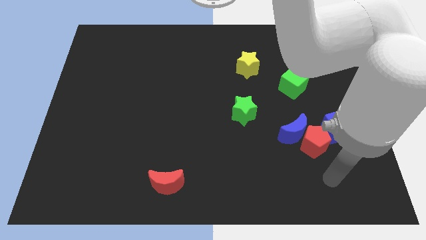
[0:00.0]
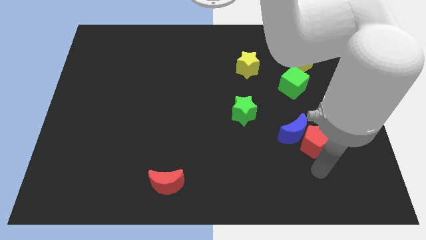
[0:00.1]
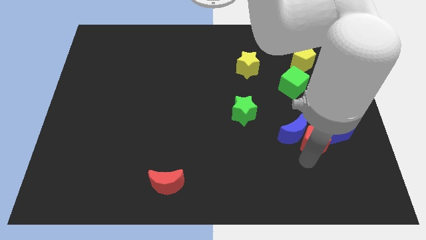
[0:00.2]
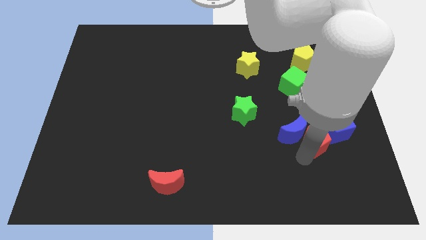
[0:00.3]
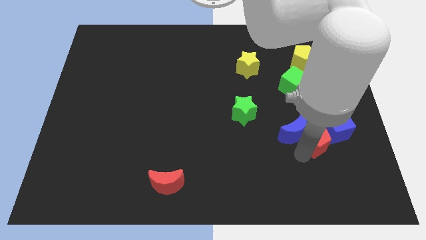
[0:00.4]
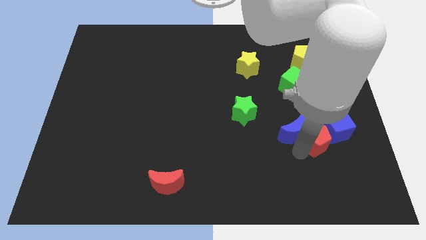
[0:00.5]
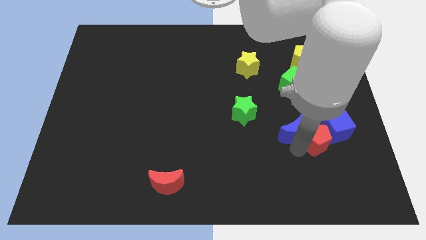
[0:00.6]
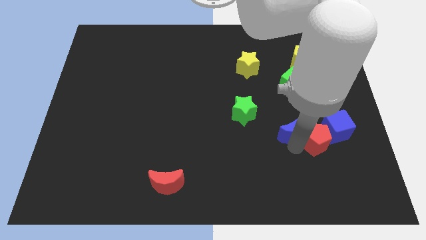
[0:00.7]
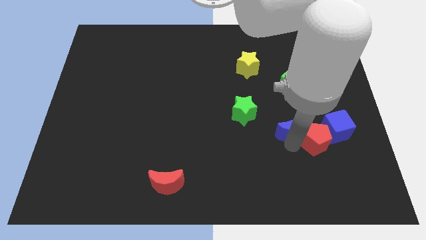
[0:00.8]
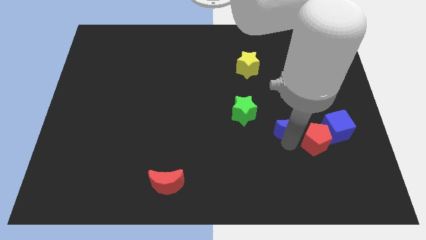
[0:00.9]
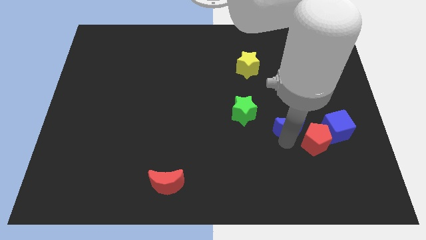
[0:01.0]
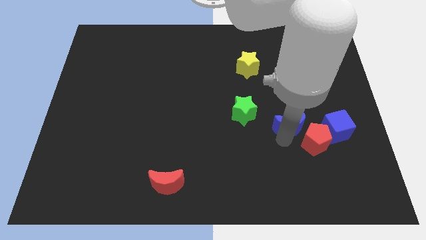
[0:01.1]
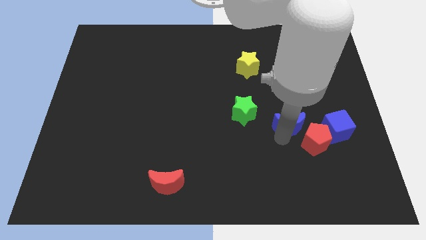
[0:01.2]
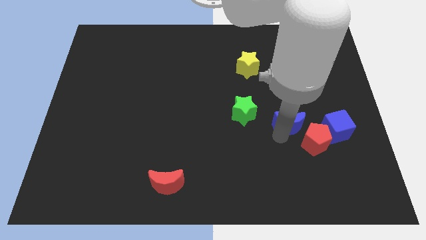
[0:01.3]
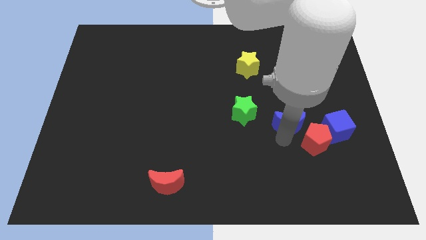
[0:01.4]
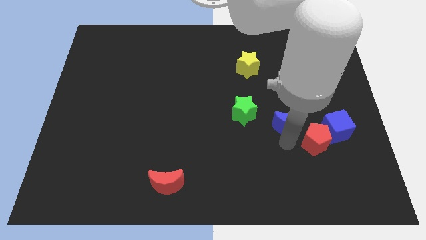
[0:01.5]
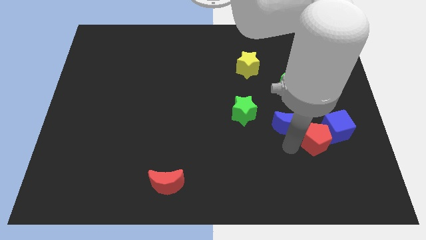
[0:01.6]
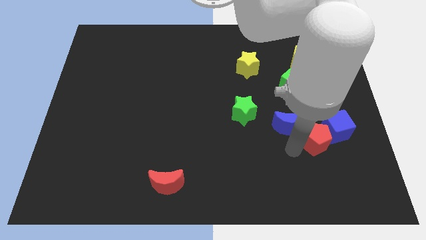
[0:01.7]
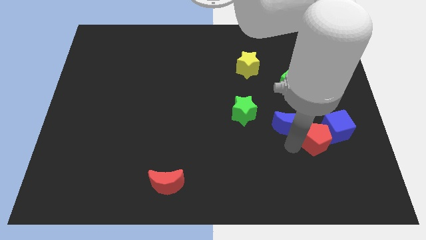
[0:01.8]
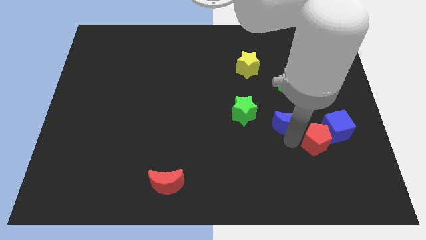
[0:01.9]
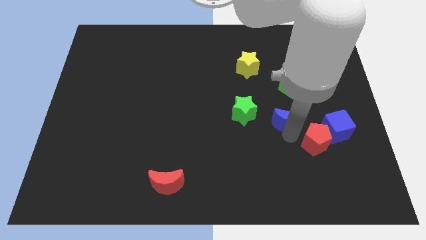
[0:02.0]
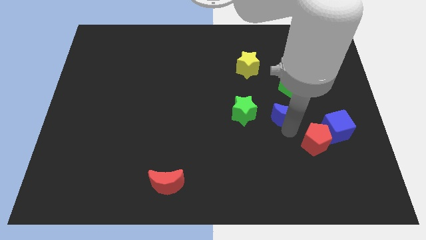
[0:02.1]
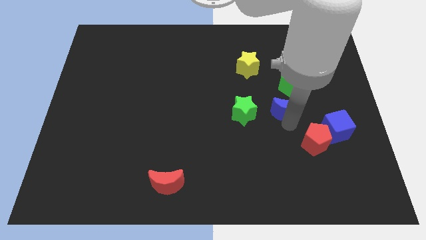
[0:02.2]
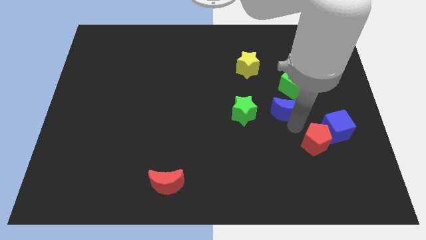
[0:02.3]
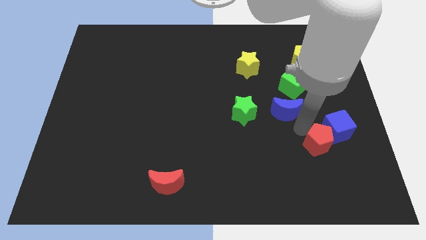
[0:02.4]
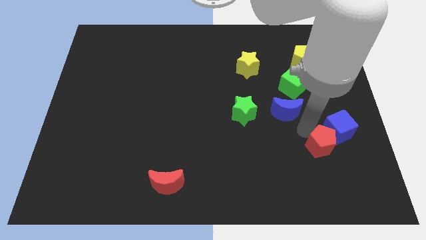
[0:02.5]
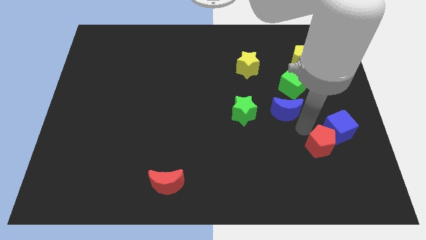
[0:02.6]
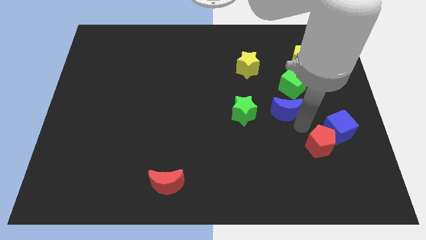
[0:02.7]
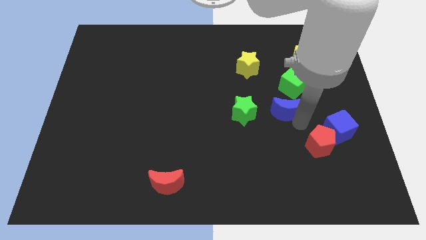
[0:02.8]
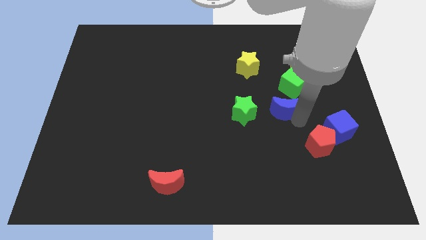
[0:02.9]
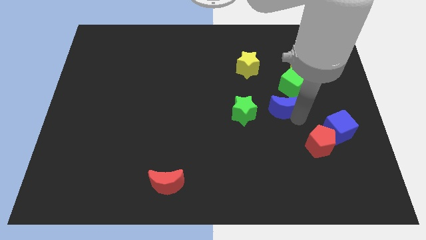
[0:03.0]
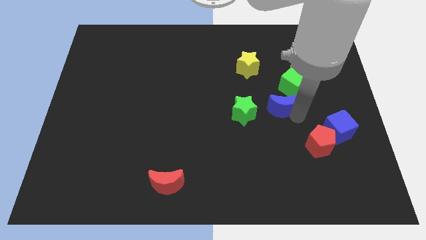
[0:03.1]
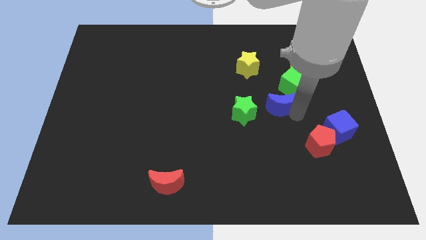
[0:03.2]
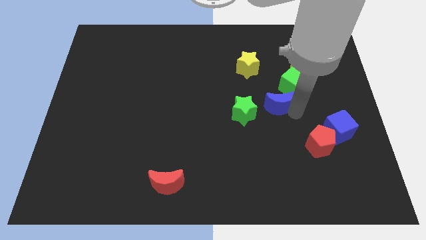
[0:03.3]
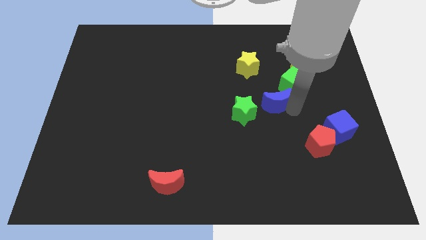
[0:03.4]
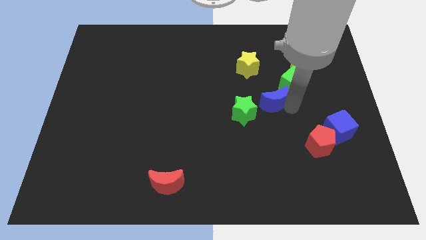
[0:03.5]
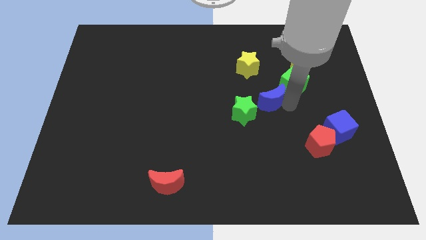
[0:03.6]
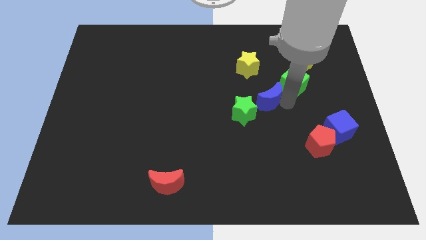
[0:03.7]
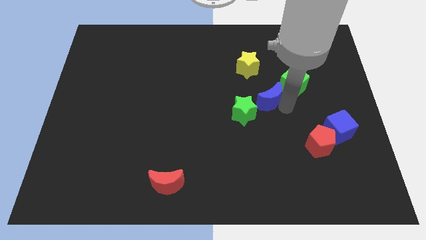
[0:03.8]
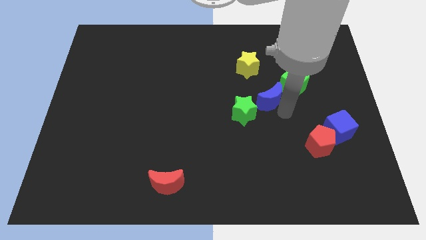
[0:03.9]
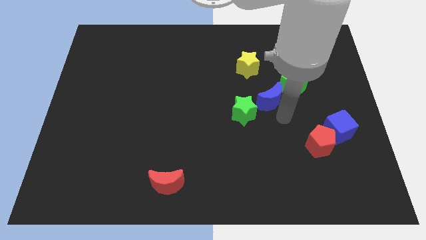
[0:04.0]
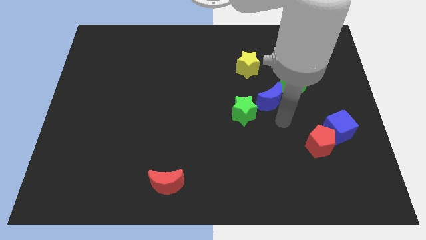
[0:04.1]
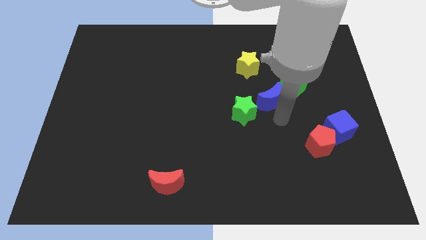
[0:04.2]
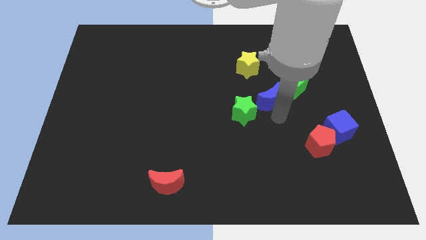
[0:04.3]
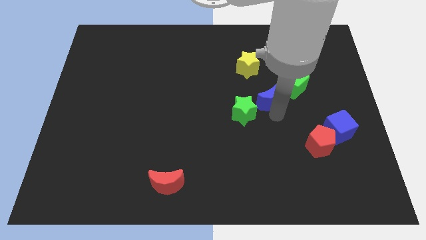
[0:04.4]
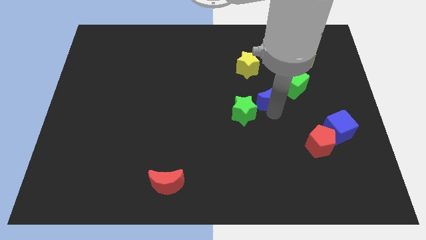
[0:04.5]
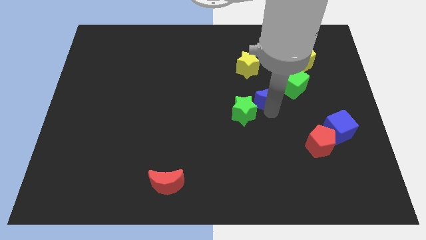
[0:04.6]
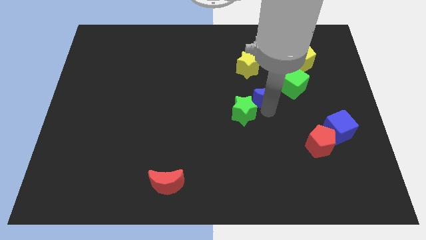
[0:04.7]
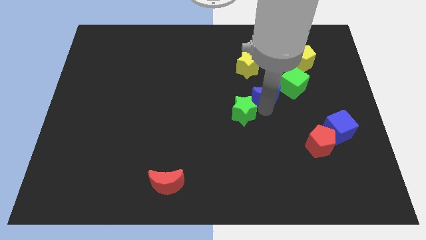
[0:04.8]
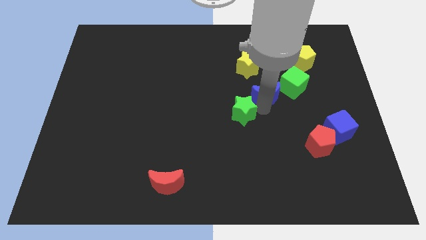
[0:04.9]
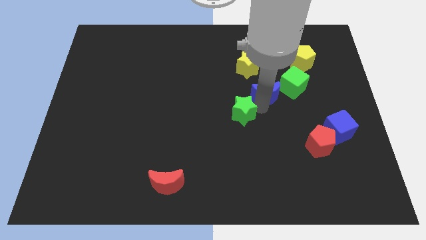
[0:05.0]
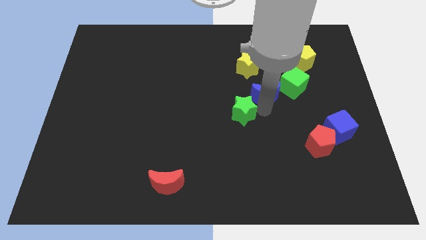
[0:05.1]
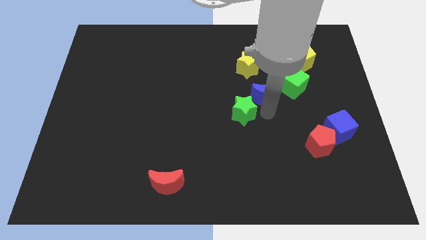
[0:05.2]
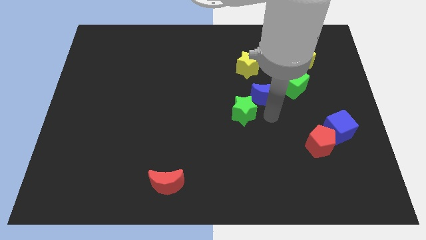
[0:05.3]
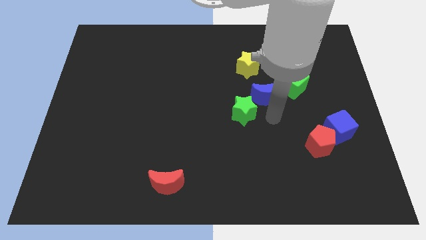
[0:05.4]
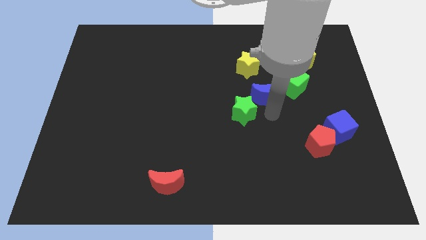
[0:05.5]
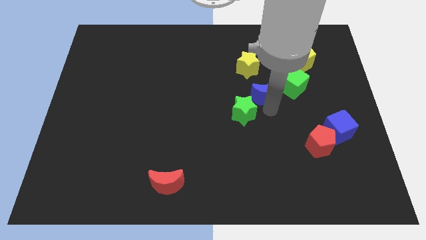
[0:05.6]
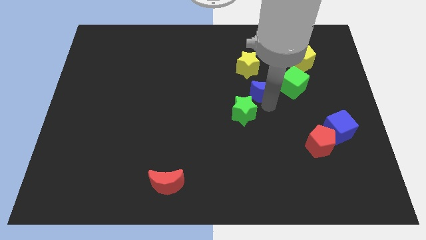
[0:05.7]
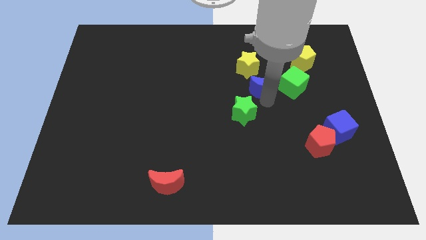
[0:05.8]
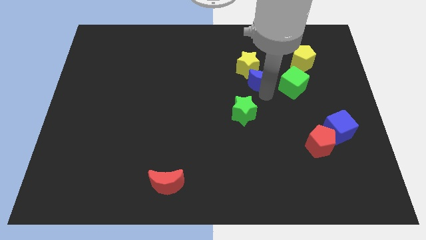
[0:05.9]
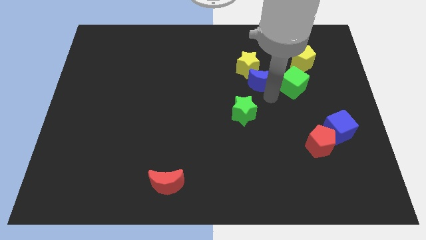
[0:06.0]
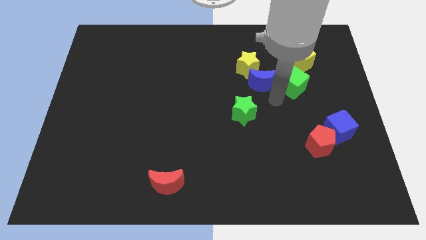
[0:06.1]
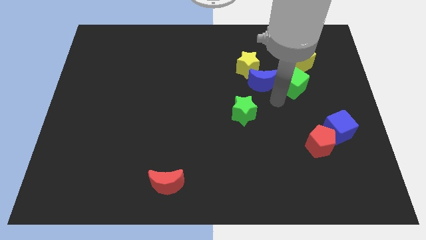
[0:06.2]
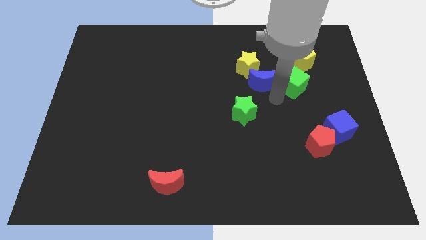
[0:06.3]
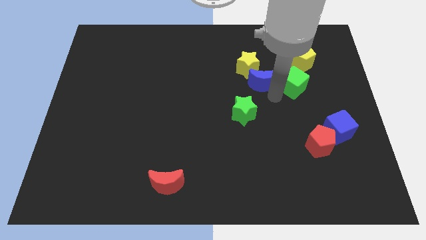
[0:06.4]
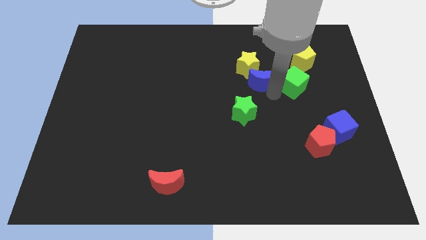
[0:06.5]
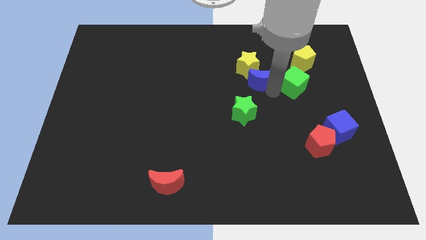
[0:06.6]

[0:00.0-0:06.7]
push the blue moon next to the yellow star

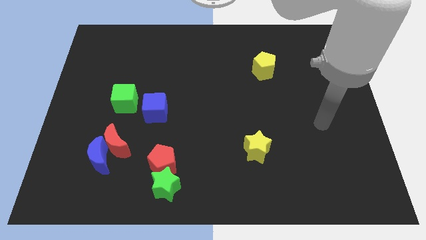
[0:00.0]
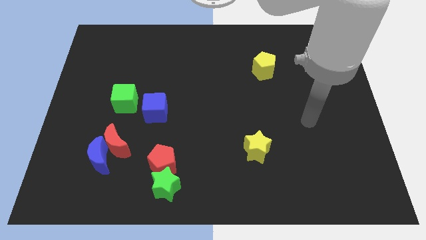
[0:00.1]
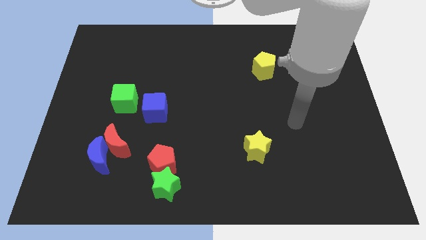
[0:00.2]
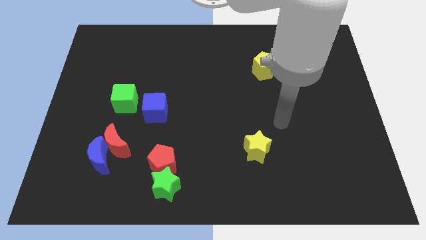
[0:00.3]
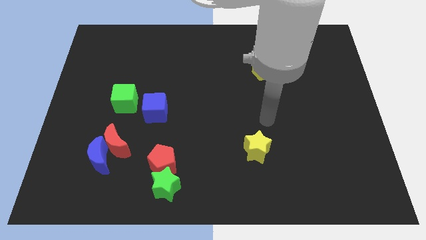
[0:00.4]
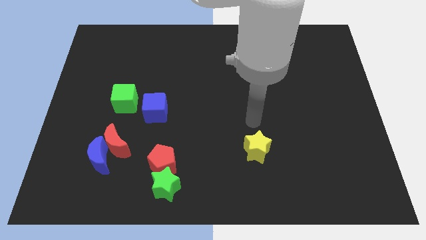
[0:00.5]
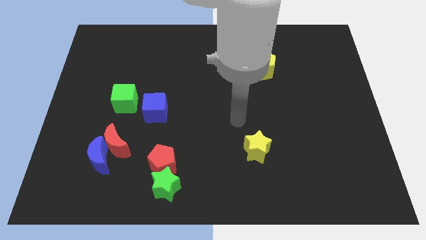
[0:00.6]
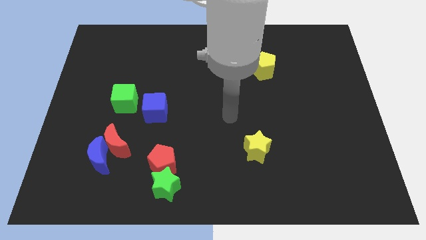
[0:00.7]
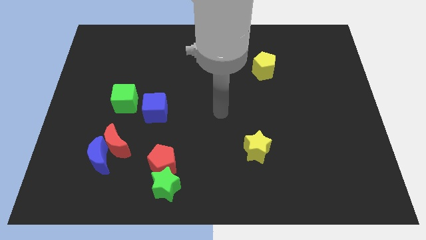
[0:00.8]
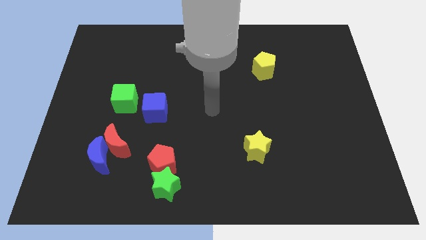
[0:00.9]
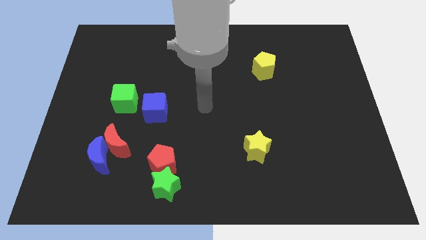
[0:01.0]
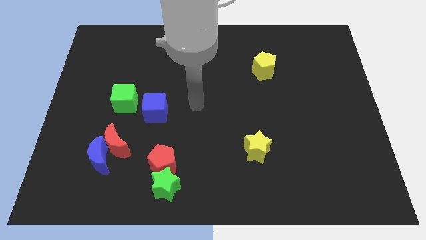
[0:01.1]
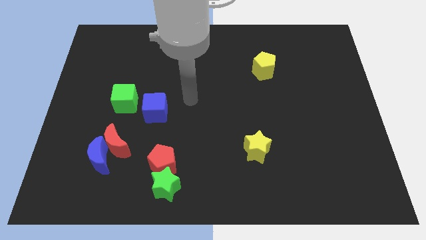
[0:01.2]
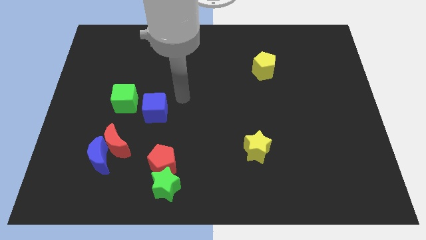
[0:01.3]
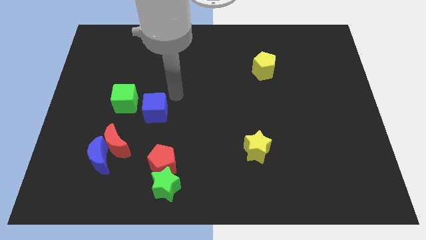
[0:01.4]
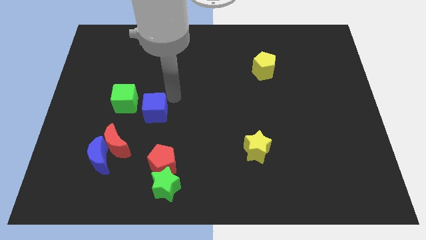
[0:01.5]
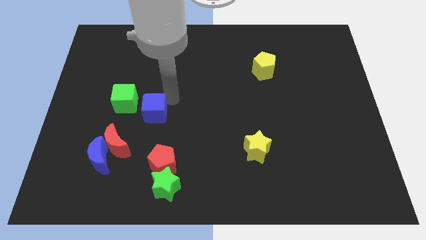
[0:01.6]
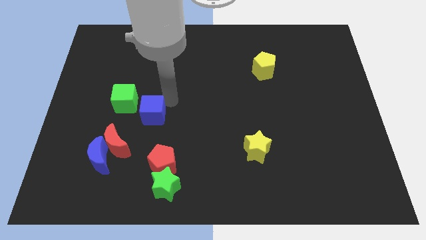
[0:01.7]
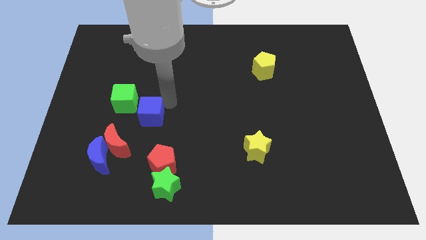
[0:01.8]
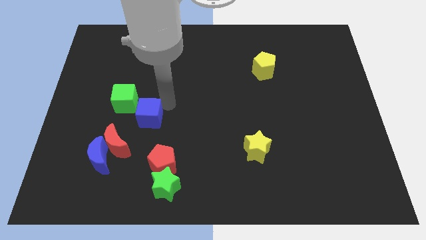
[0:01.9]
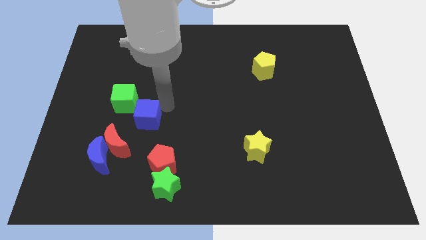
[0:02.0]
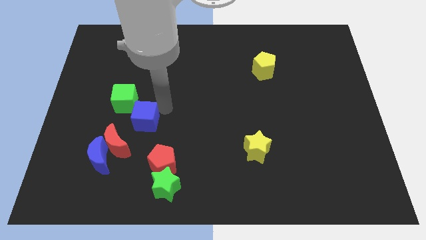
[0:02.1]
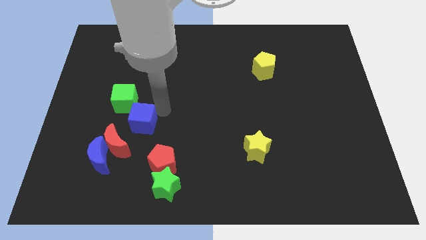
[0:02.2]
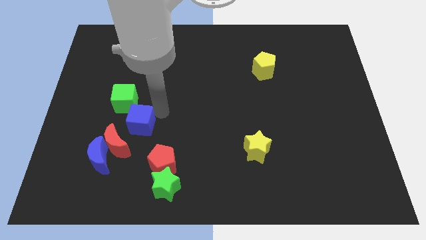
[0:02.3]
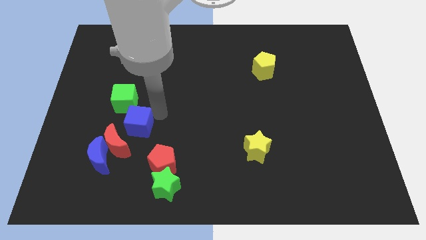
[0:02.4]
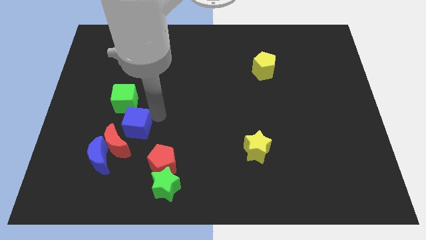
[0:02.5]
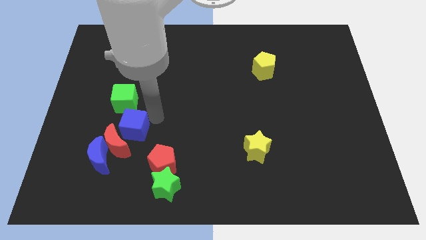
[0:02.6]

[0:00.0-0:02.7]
slide the blue cube towards the red moon
